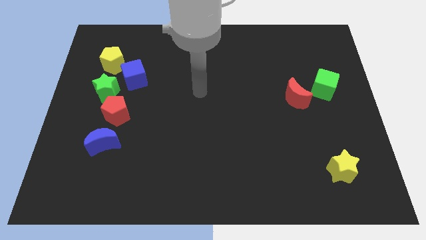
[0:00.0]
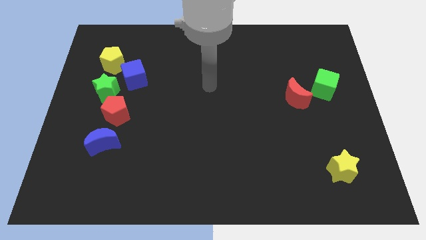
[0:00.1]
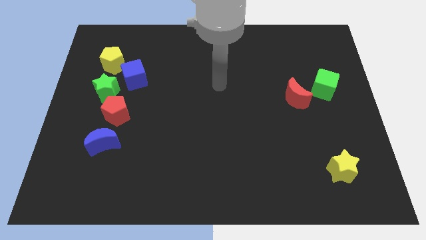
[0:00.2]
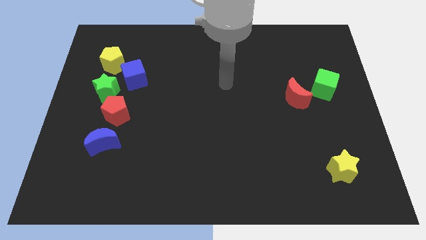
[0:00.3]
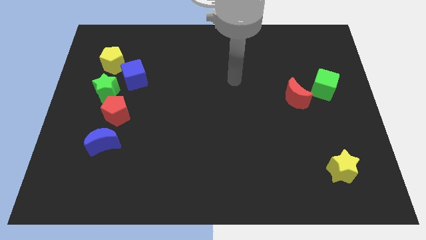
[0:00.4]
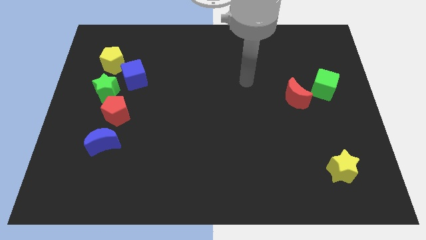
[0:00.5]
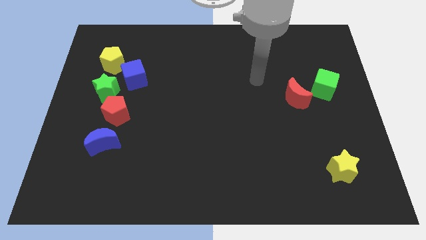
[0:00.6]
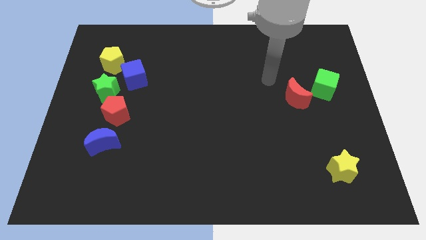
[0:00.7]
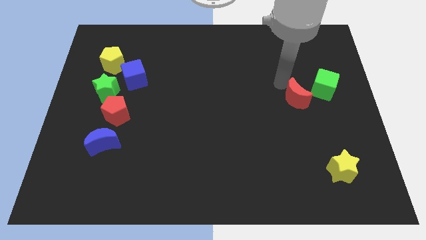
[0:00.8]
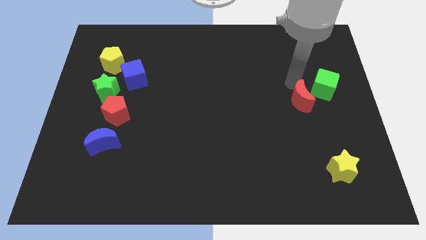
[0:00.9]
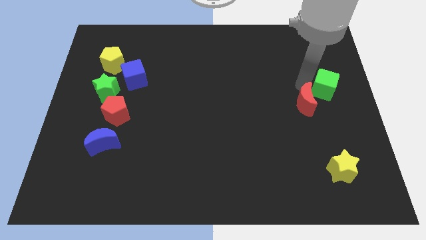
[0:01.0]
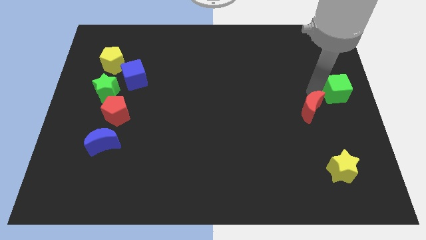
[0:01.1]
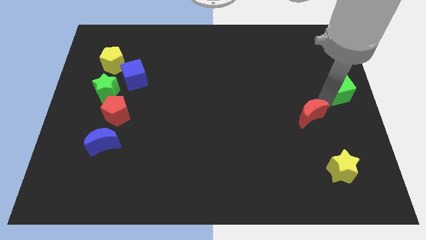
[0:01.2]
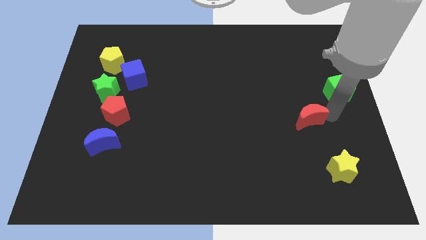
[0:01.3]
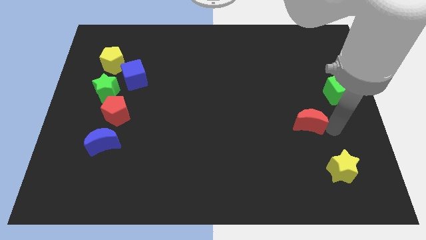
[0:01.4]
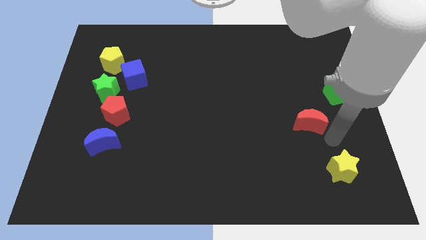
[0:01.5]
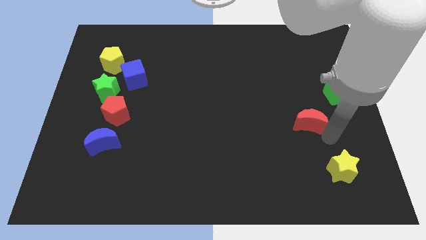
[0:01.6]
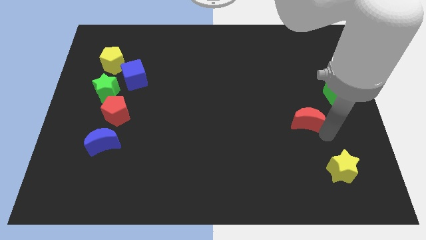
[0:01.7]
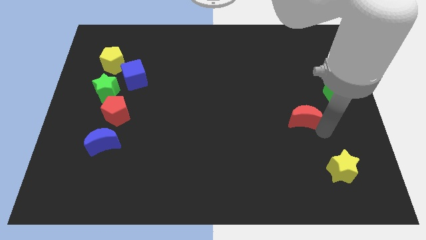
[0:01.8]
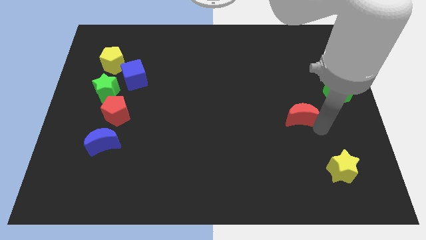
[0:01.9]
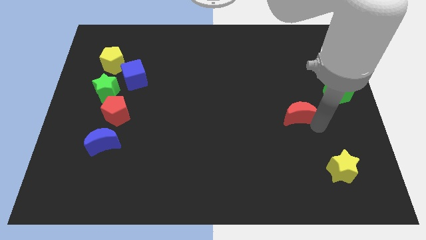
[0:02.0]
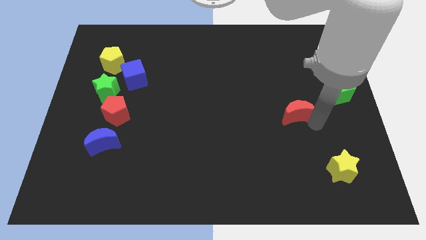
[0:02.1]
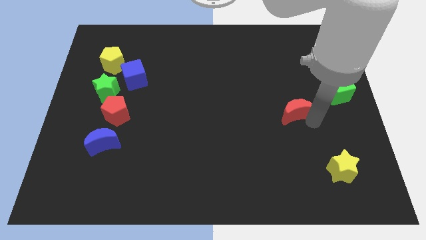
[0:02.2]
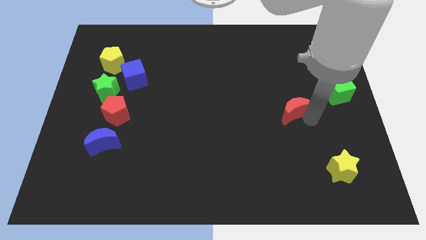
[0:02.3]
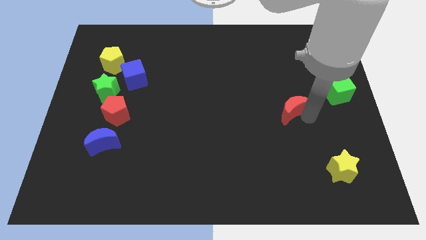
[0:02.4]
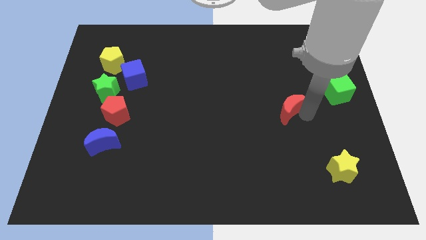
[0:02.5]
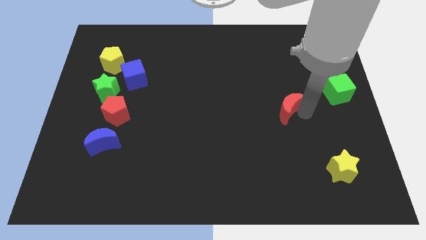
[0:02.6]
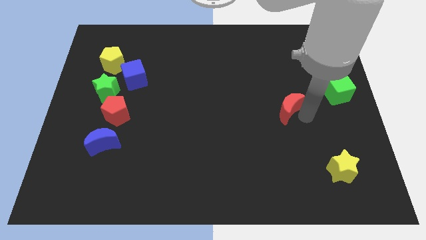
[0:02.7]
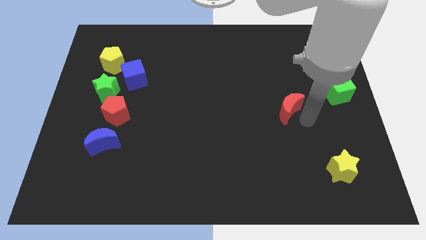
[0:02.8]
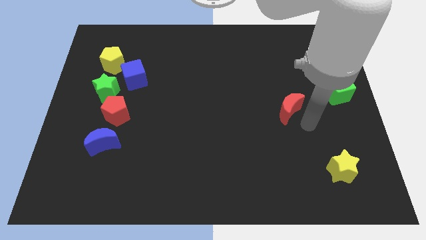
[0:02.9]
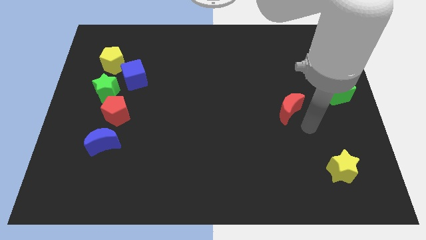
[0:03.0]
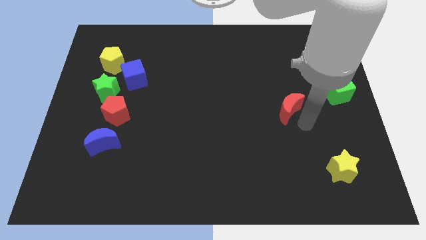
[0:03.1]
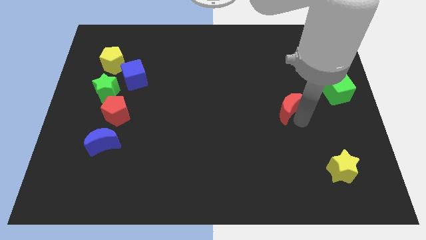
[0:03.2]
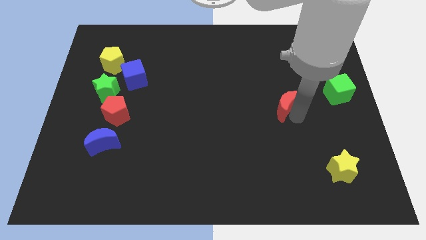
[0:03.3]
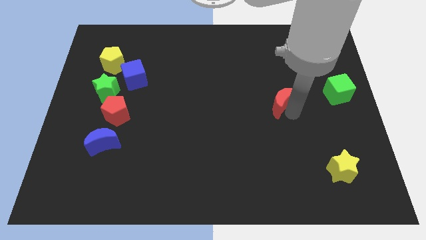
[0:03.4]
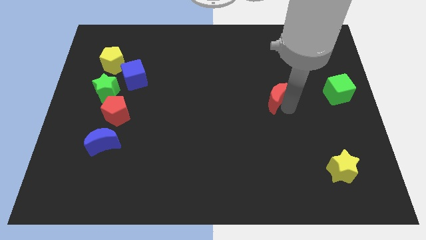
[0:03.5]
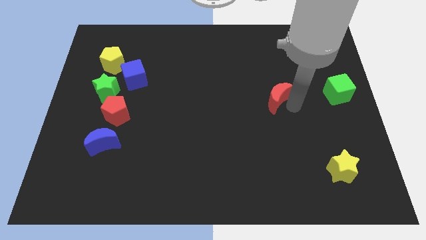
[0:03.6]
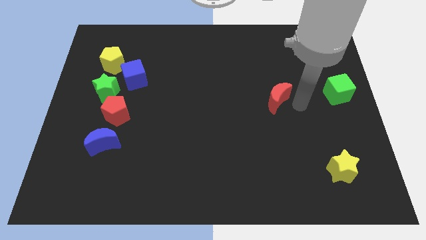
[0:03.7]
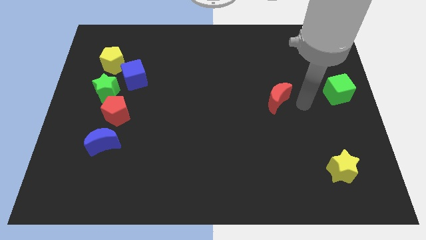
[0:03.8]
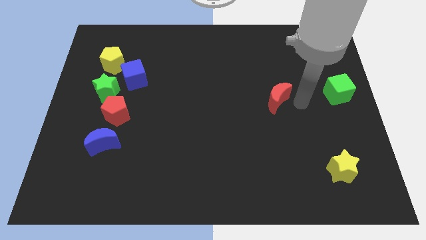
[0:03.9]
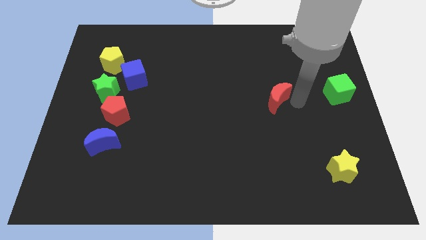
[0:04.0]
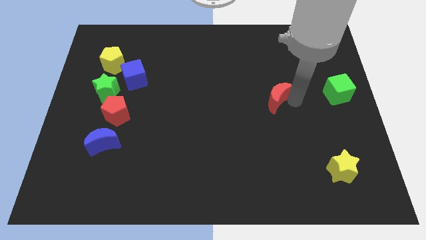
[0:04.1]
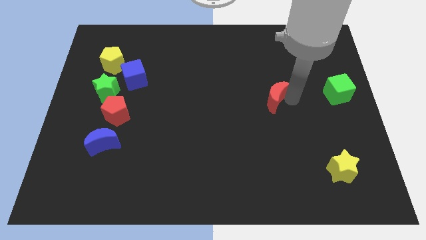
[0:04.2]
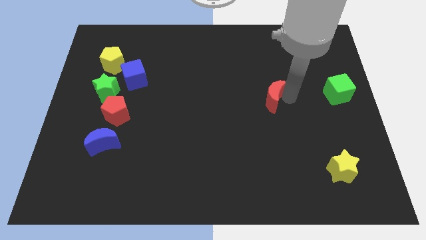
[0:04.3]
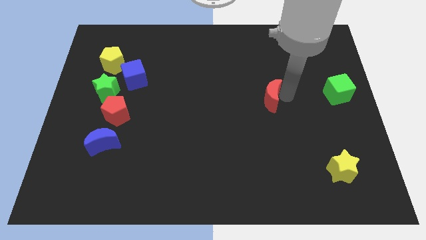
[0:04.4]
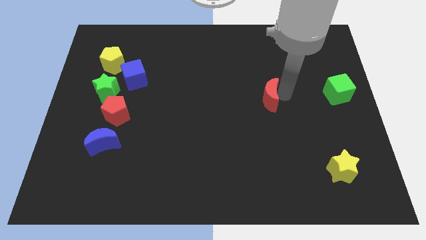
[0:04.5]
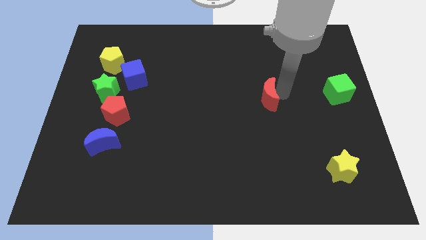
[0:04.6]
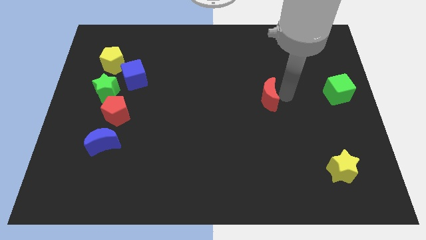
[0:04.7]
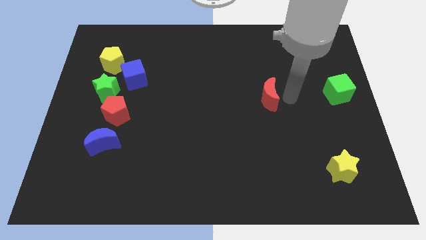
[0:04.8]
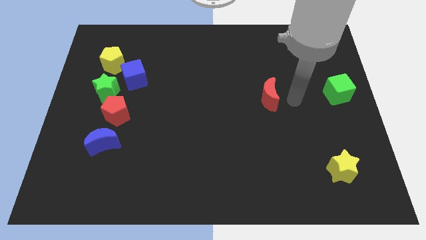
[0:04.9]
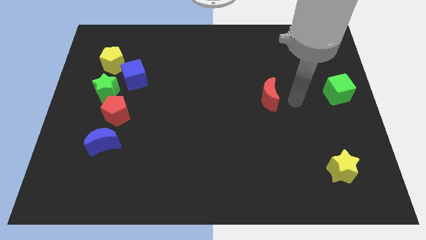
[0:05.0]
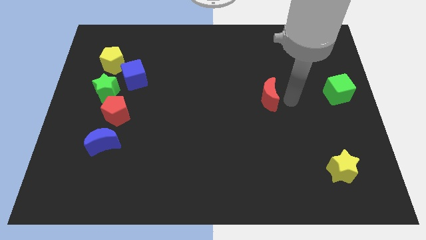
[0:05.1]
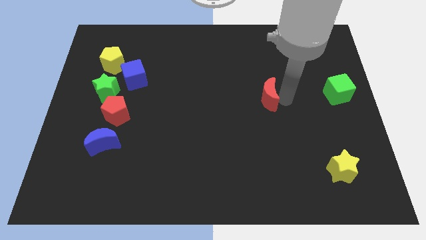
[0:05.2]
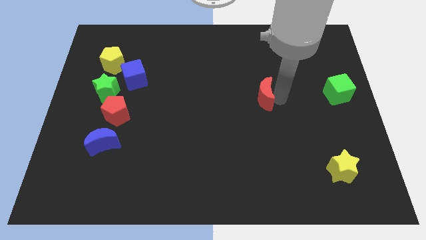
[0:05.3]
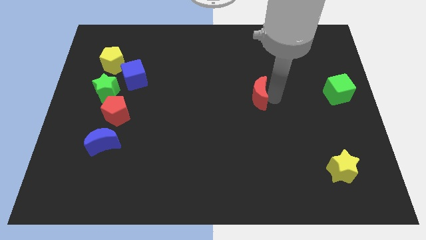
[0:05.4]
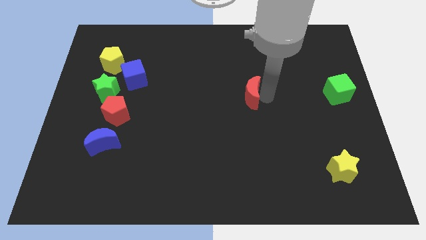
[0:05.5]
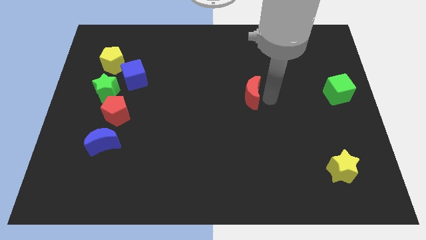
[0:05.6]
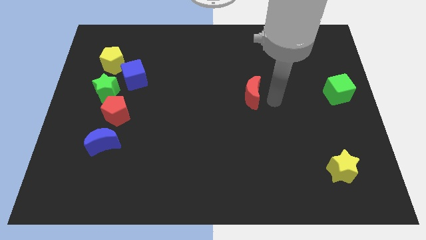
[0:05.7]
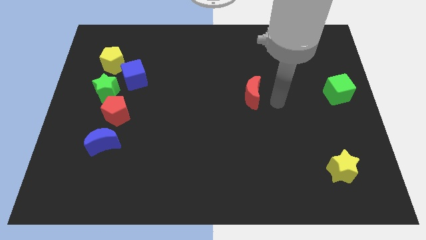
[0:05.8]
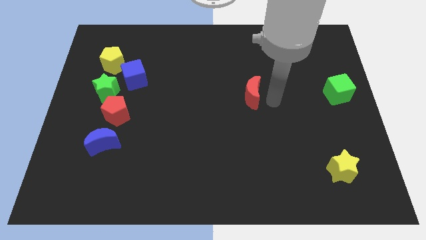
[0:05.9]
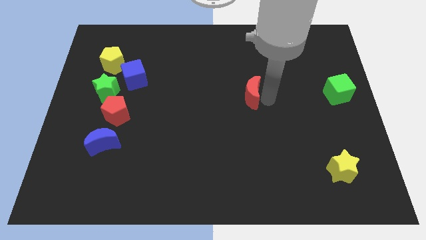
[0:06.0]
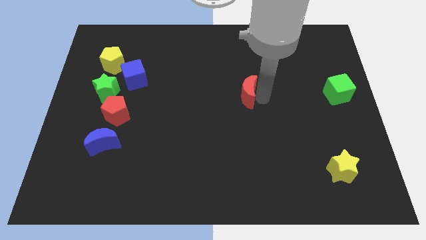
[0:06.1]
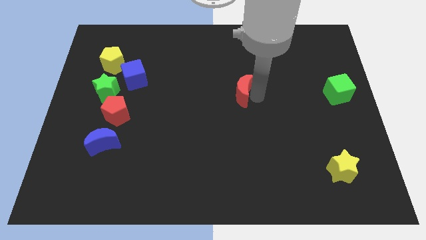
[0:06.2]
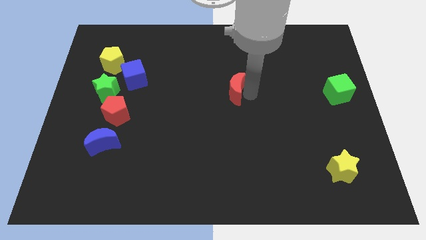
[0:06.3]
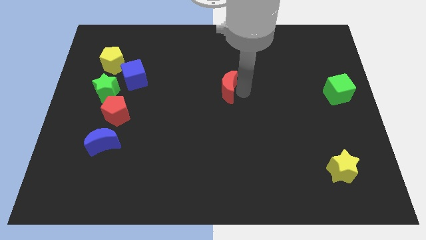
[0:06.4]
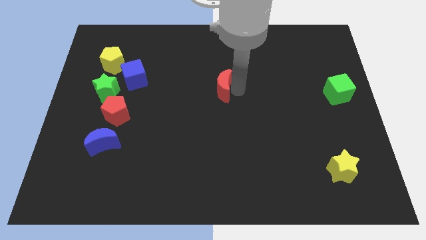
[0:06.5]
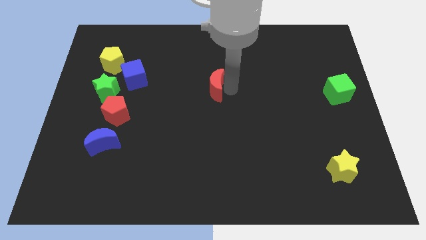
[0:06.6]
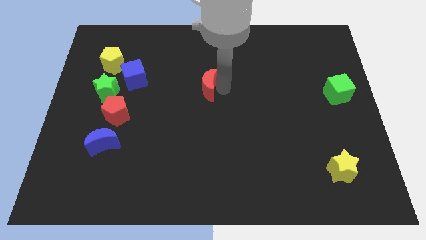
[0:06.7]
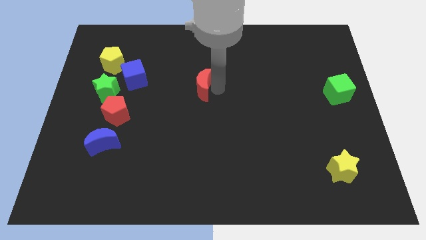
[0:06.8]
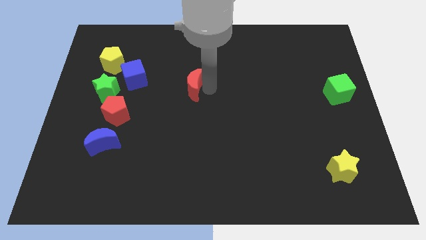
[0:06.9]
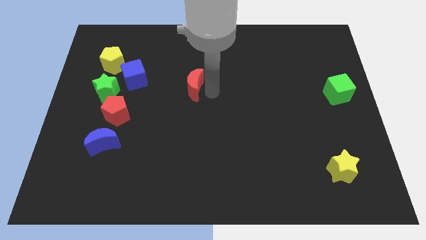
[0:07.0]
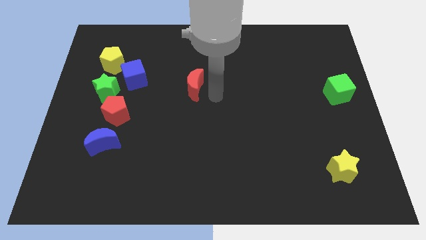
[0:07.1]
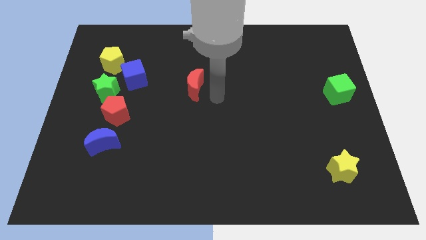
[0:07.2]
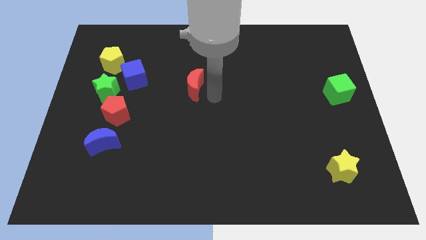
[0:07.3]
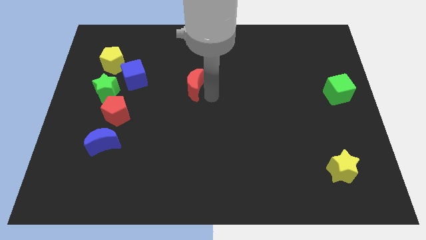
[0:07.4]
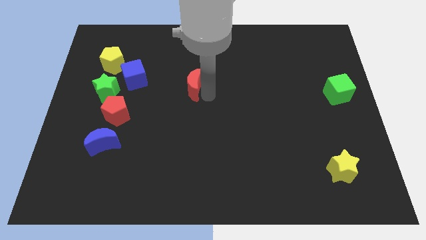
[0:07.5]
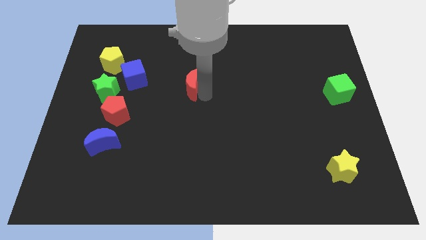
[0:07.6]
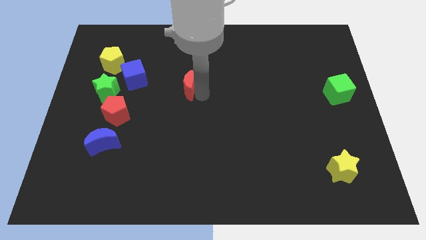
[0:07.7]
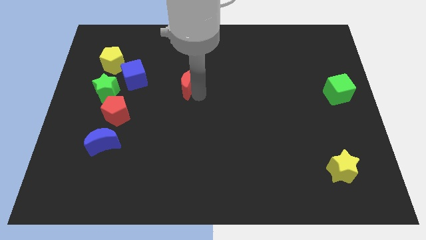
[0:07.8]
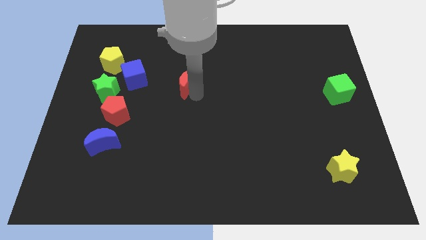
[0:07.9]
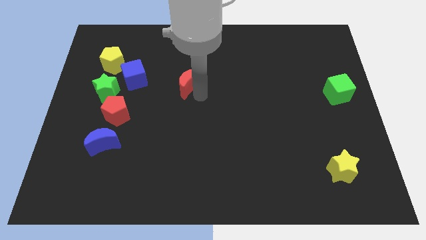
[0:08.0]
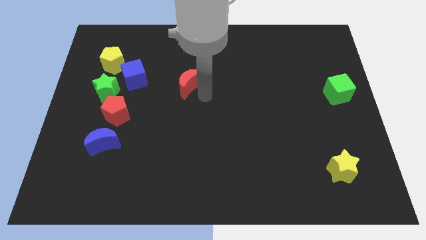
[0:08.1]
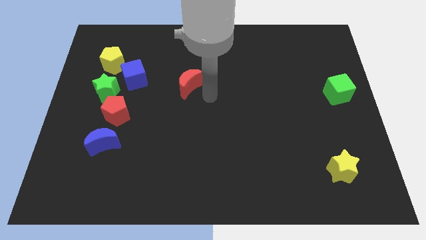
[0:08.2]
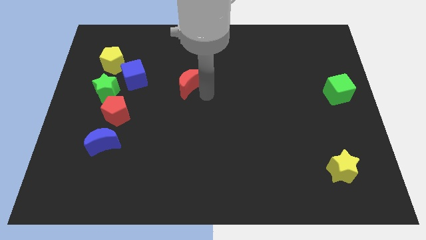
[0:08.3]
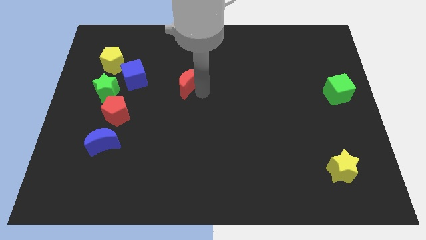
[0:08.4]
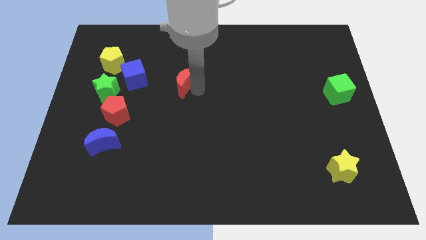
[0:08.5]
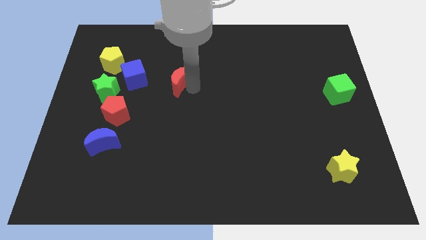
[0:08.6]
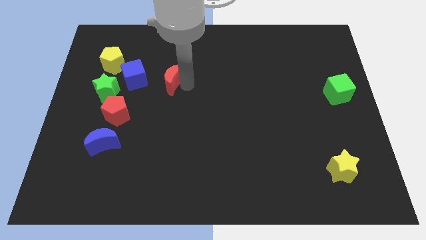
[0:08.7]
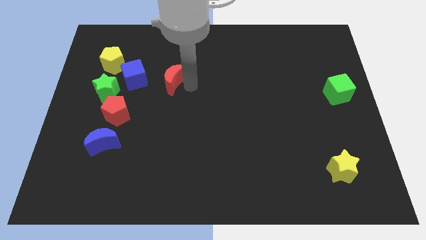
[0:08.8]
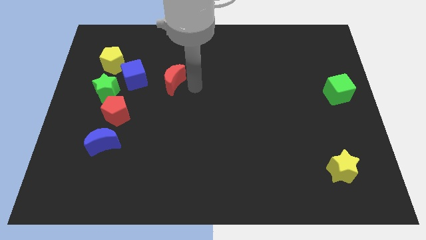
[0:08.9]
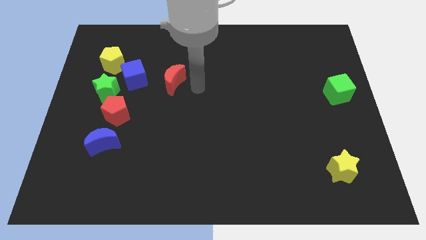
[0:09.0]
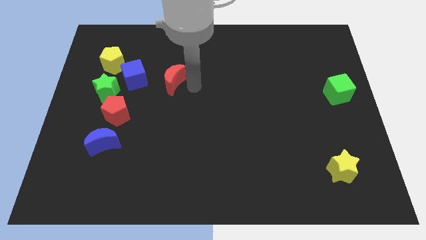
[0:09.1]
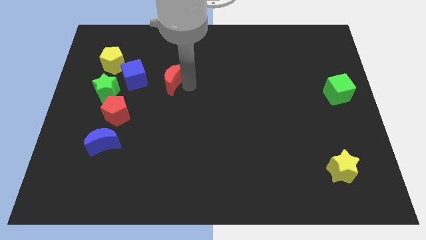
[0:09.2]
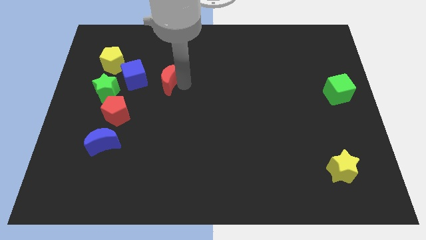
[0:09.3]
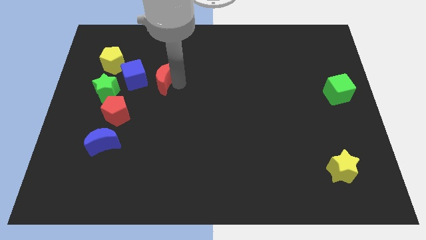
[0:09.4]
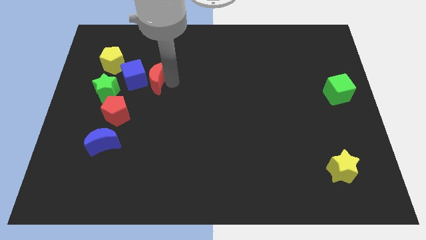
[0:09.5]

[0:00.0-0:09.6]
put the red moon to the blue cube
